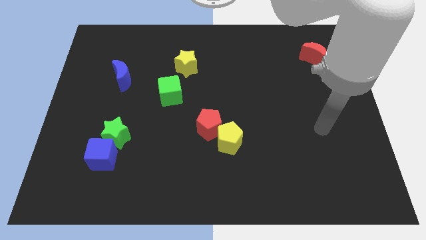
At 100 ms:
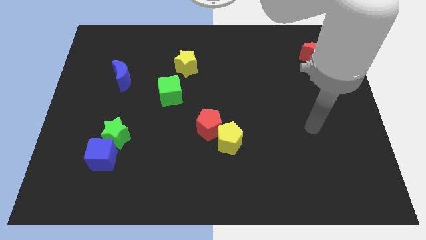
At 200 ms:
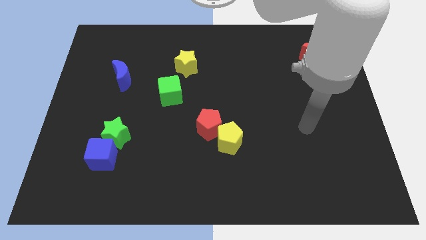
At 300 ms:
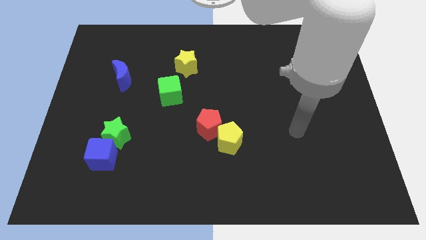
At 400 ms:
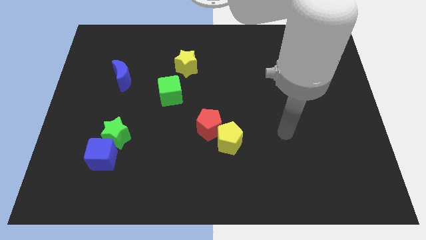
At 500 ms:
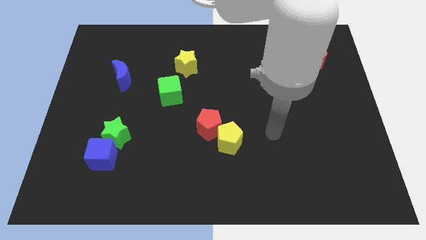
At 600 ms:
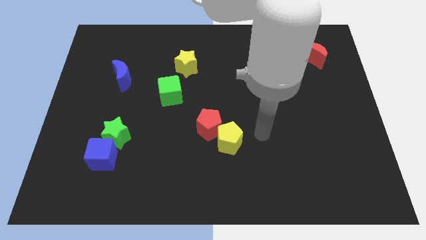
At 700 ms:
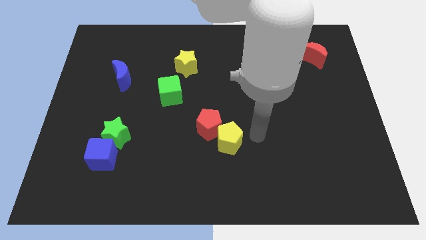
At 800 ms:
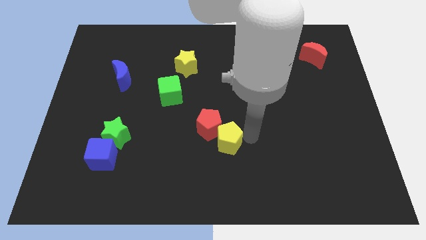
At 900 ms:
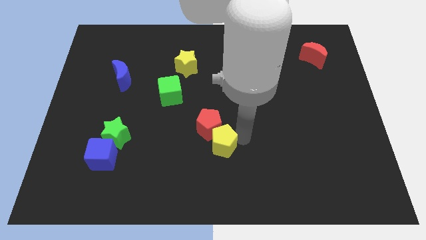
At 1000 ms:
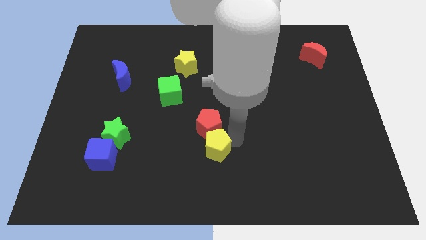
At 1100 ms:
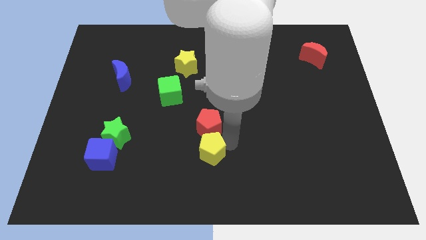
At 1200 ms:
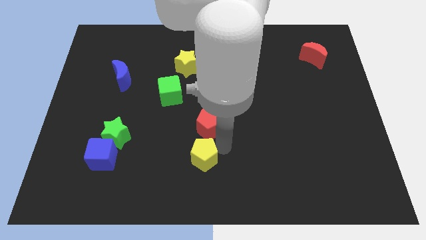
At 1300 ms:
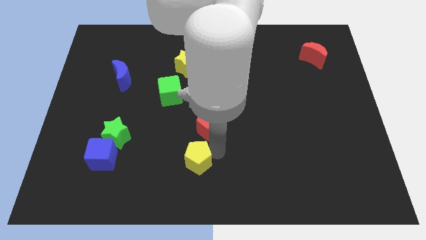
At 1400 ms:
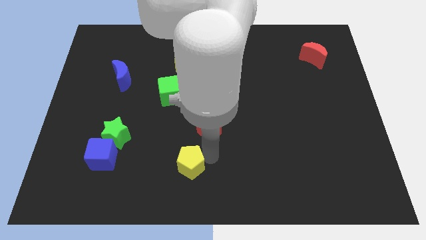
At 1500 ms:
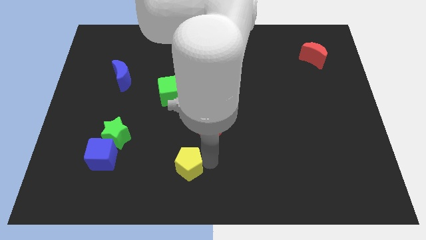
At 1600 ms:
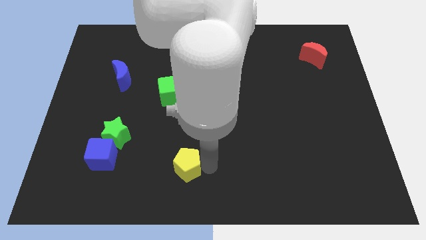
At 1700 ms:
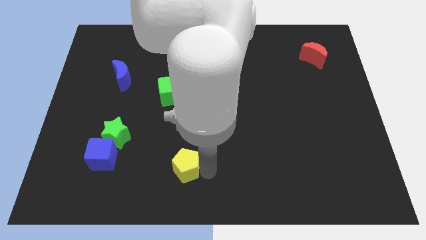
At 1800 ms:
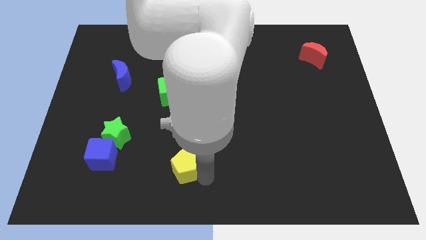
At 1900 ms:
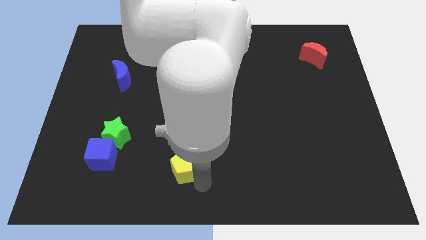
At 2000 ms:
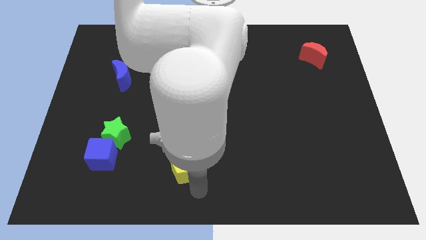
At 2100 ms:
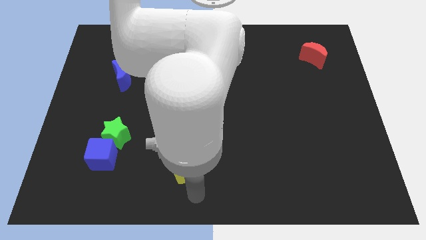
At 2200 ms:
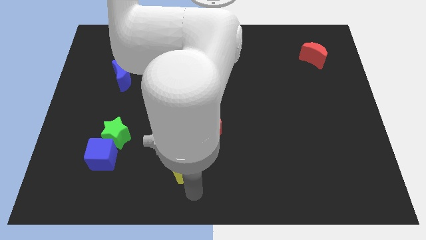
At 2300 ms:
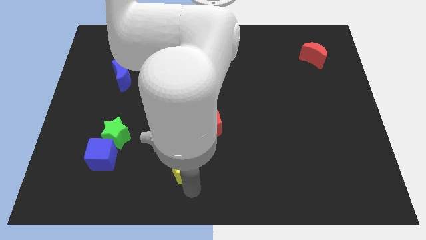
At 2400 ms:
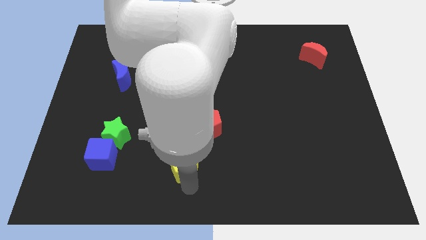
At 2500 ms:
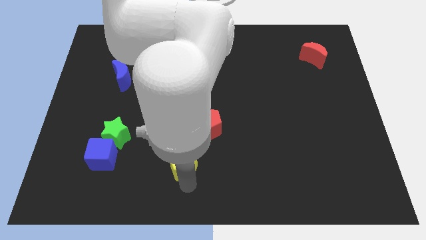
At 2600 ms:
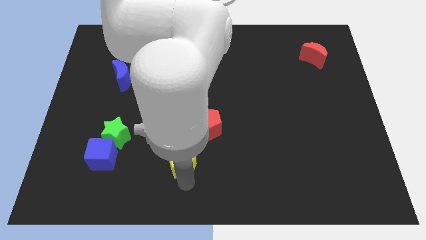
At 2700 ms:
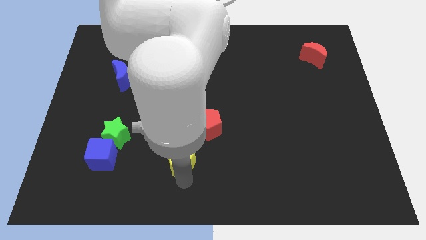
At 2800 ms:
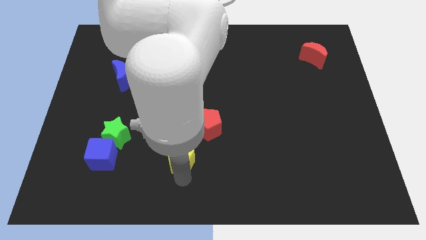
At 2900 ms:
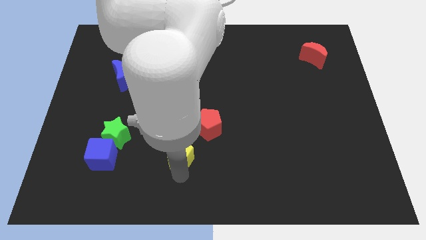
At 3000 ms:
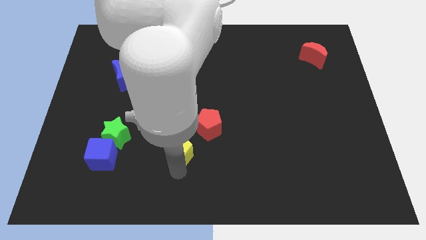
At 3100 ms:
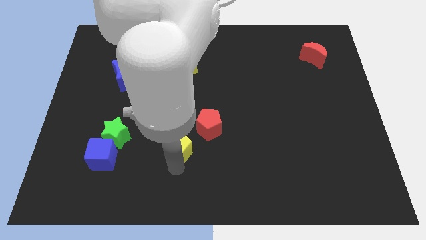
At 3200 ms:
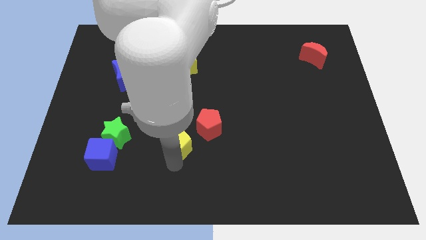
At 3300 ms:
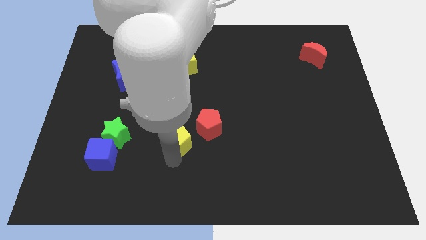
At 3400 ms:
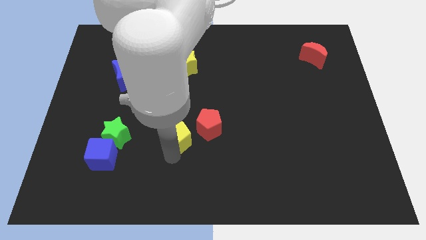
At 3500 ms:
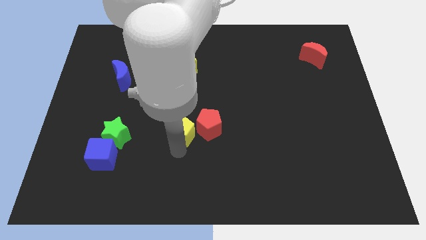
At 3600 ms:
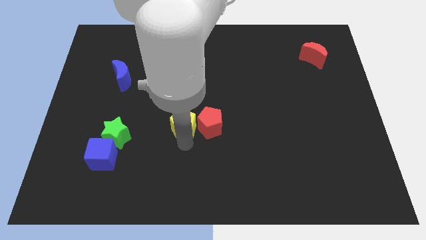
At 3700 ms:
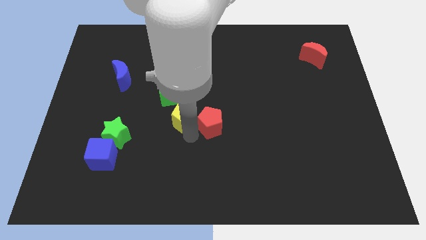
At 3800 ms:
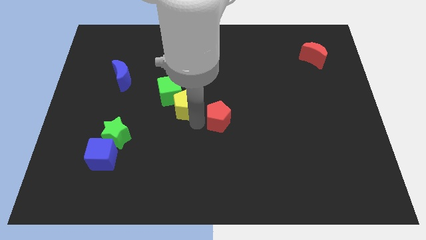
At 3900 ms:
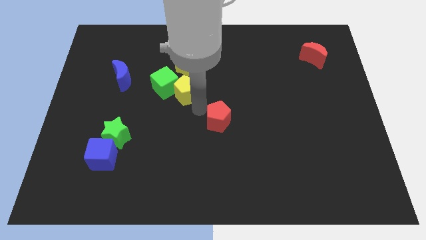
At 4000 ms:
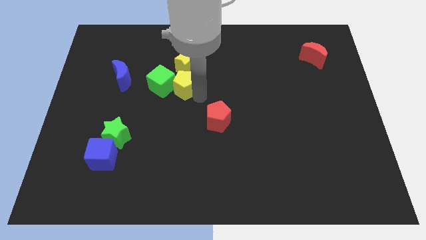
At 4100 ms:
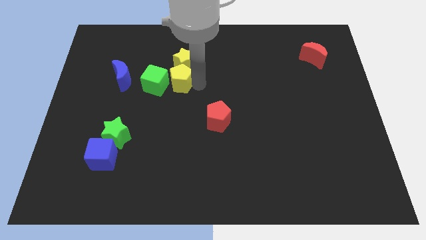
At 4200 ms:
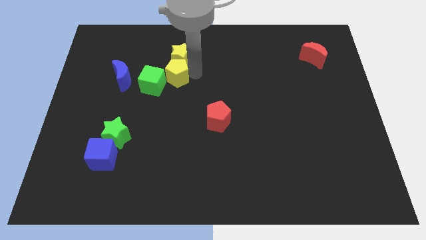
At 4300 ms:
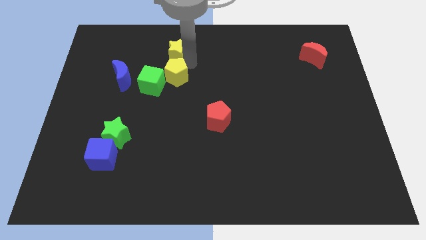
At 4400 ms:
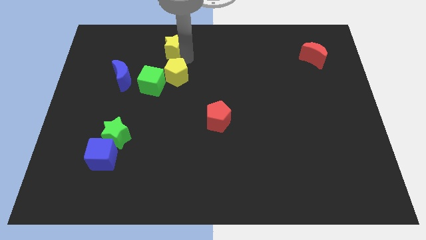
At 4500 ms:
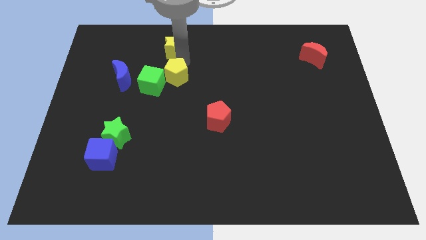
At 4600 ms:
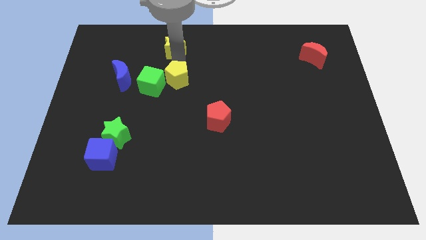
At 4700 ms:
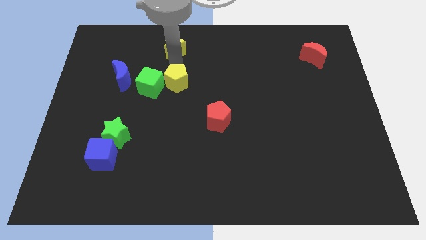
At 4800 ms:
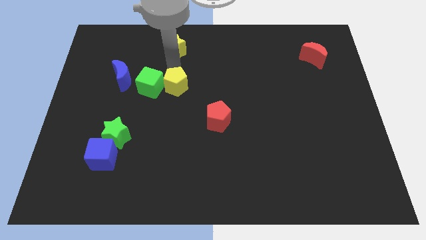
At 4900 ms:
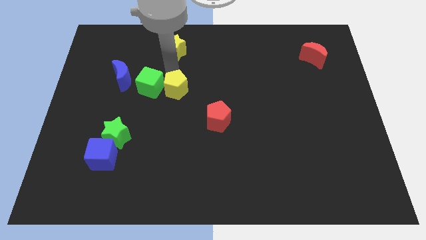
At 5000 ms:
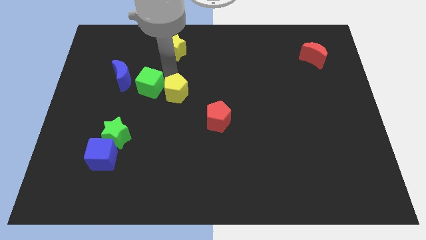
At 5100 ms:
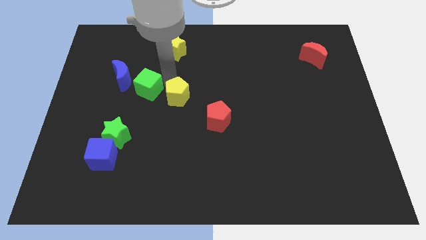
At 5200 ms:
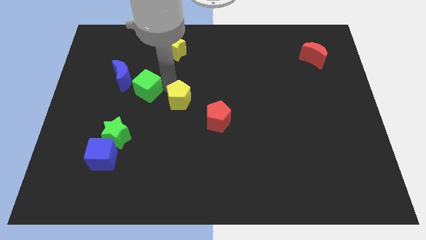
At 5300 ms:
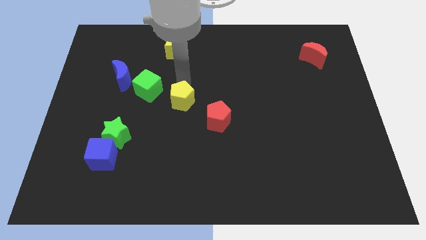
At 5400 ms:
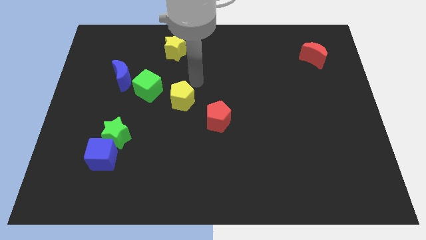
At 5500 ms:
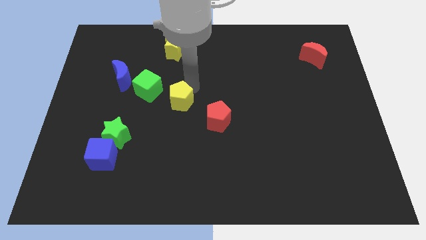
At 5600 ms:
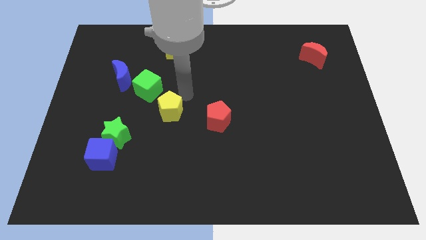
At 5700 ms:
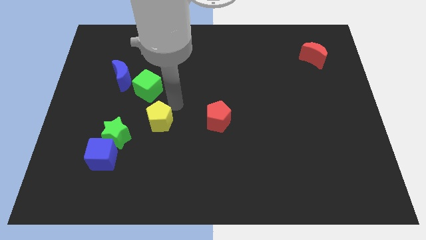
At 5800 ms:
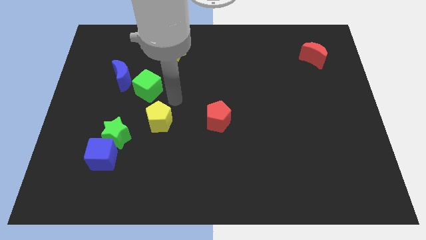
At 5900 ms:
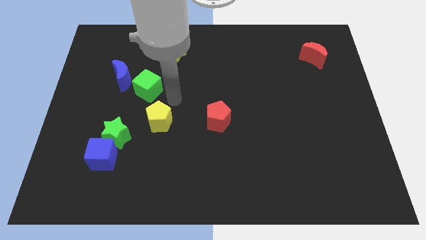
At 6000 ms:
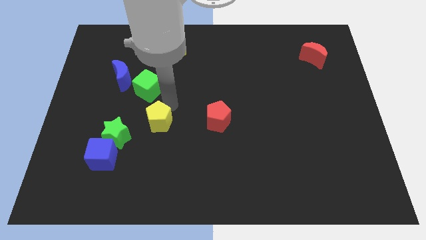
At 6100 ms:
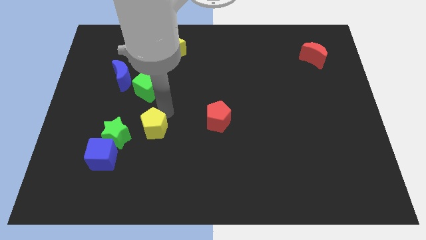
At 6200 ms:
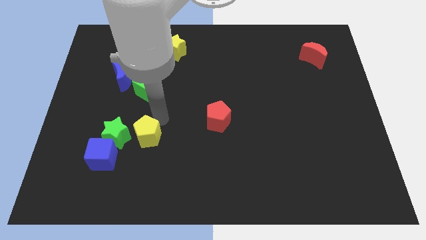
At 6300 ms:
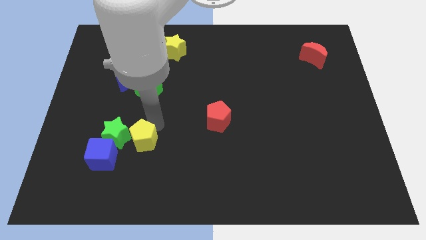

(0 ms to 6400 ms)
move the yellow pentagon to the bottom right side of the green star

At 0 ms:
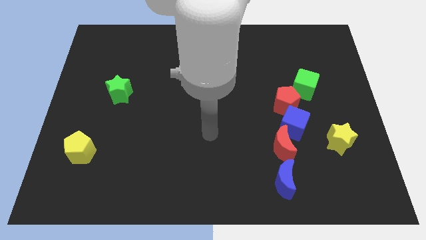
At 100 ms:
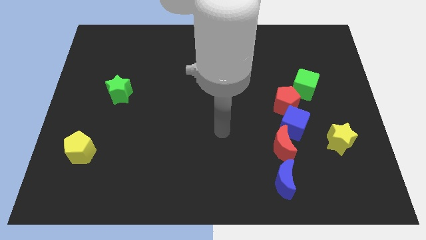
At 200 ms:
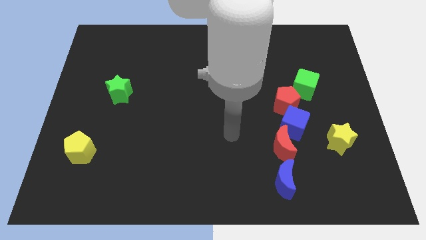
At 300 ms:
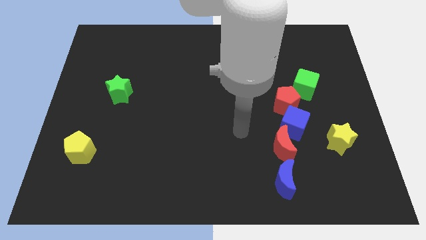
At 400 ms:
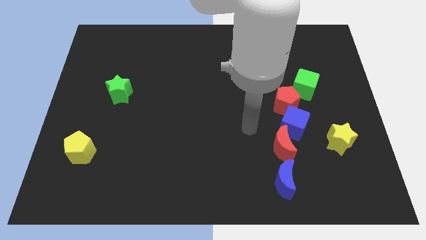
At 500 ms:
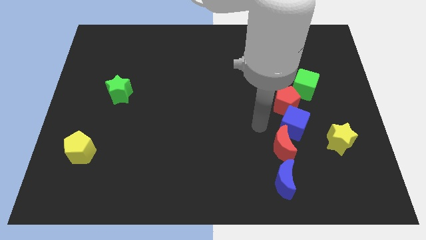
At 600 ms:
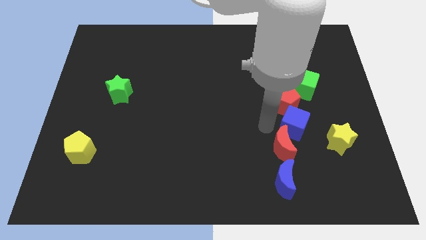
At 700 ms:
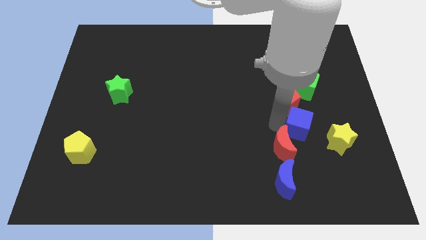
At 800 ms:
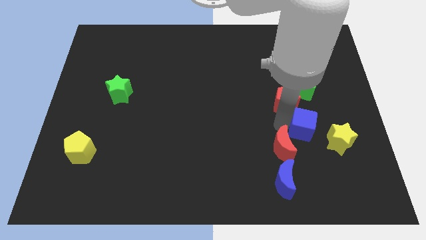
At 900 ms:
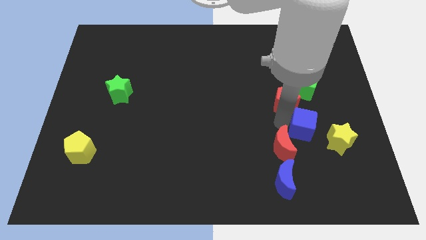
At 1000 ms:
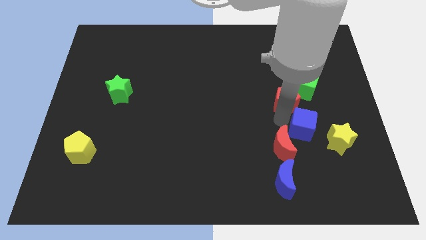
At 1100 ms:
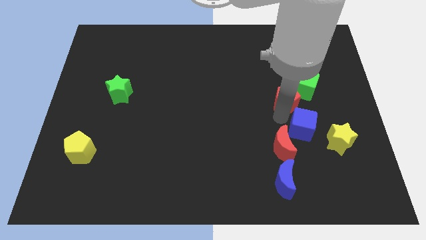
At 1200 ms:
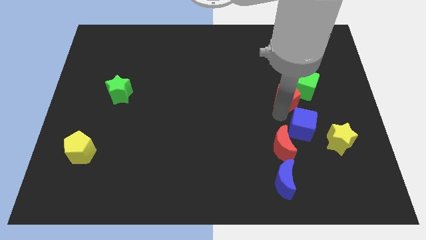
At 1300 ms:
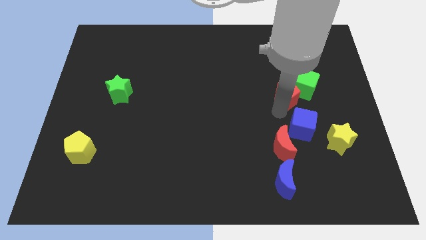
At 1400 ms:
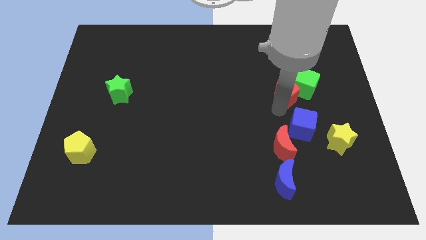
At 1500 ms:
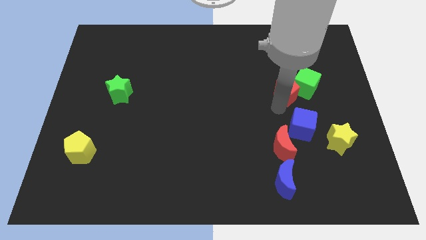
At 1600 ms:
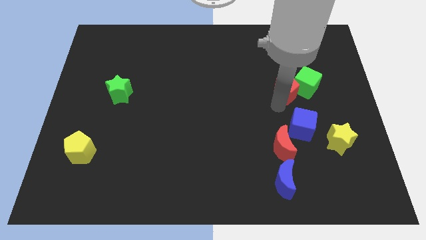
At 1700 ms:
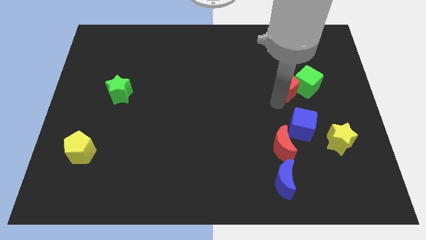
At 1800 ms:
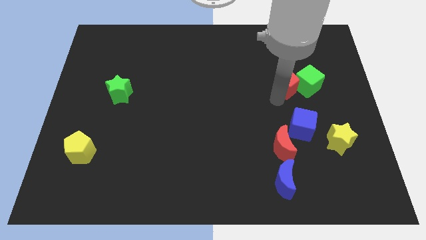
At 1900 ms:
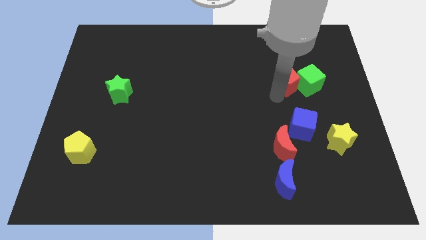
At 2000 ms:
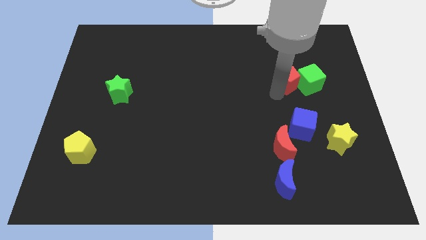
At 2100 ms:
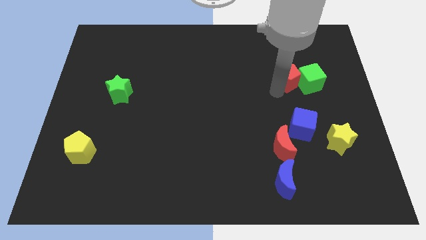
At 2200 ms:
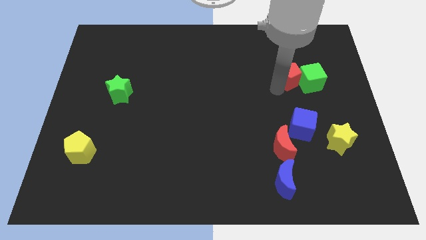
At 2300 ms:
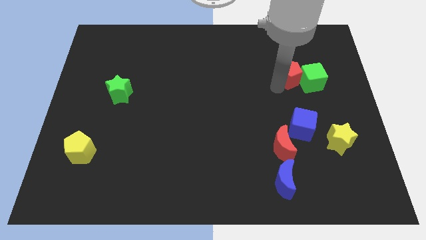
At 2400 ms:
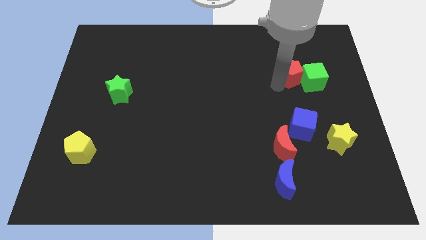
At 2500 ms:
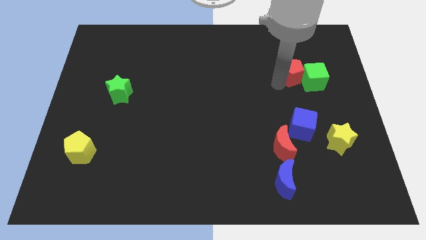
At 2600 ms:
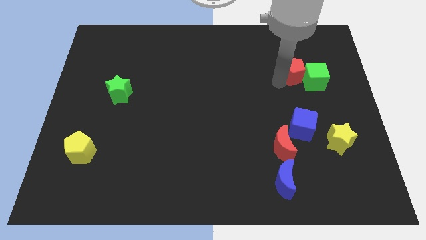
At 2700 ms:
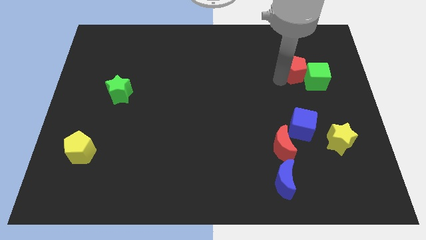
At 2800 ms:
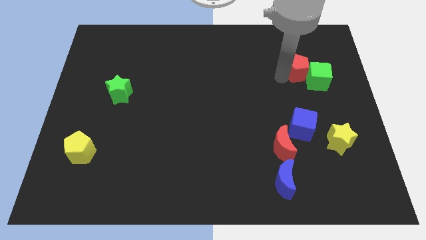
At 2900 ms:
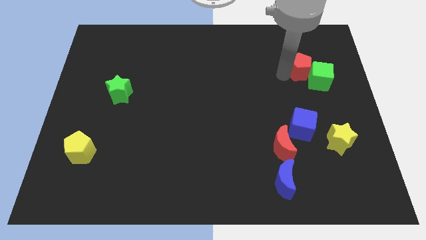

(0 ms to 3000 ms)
move the red pentagon to the top of the green cube
